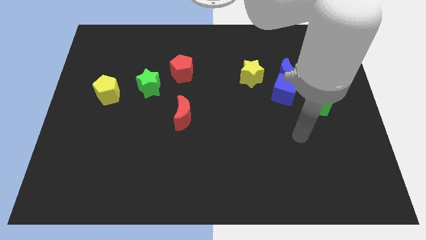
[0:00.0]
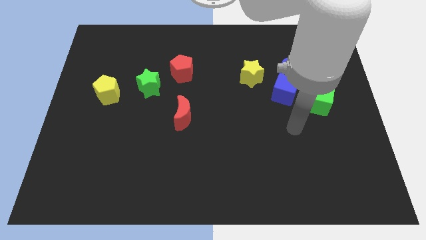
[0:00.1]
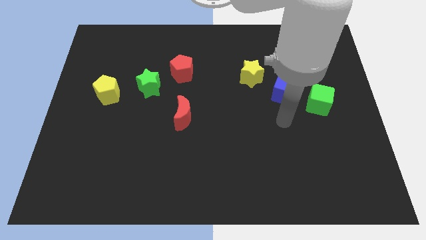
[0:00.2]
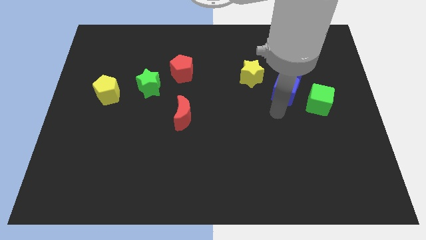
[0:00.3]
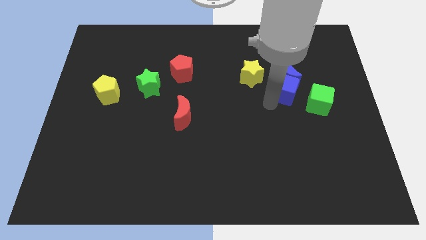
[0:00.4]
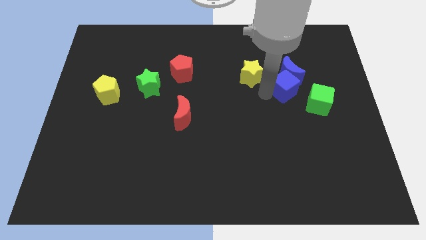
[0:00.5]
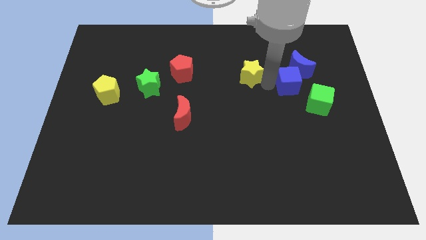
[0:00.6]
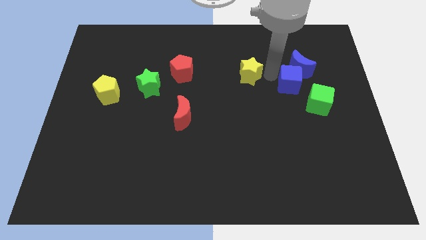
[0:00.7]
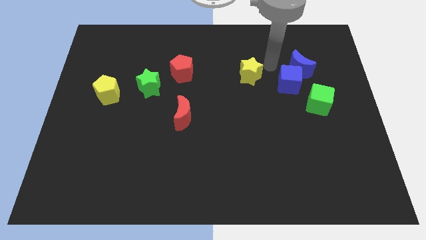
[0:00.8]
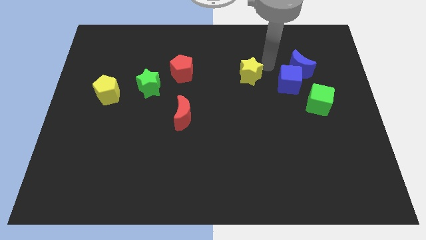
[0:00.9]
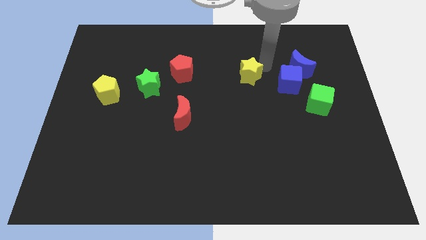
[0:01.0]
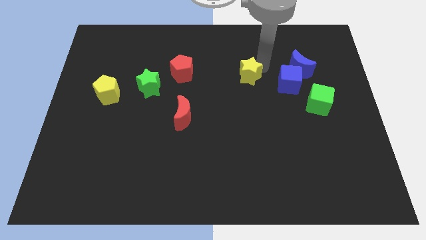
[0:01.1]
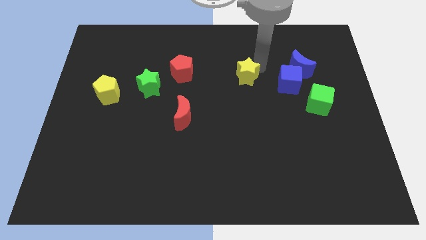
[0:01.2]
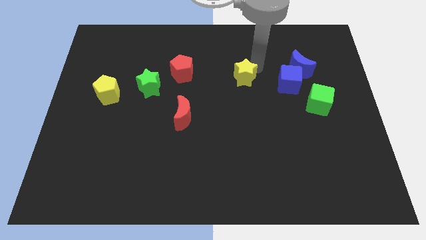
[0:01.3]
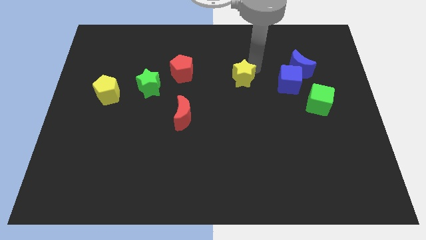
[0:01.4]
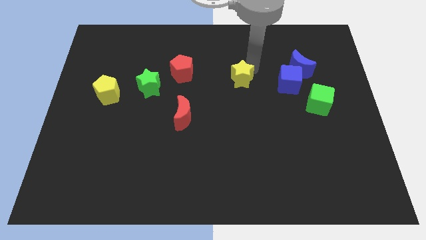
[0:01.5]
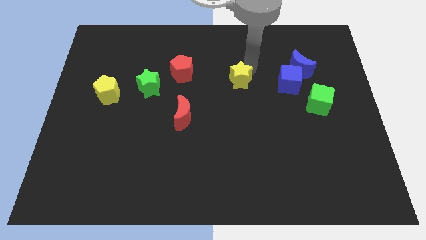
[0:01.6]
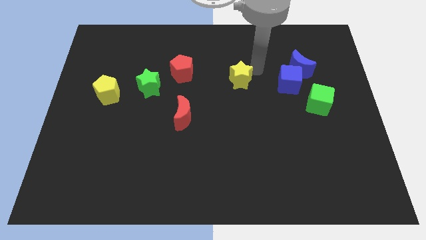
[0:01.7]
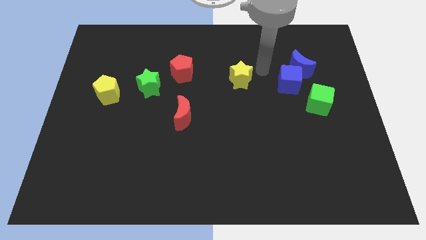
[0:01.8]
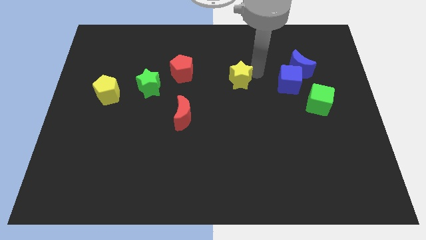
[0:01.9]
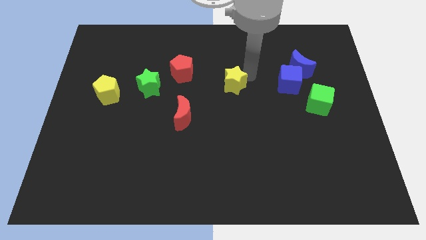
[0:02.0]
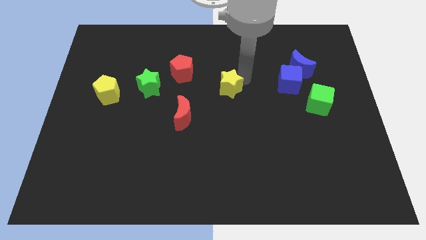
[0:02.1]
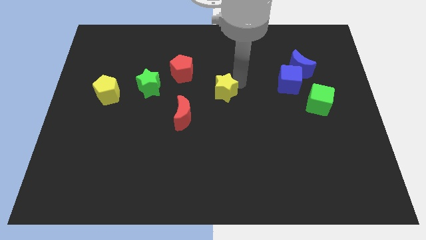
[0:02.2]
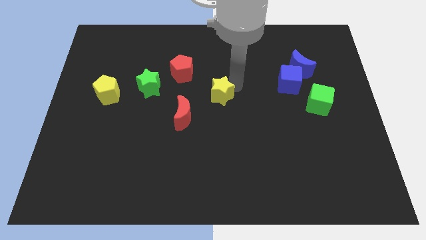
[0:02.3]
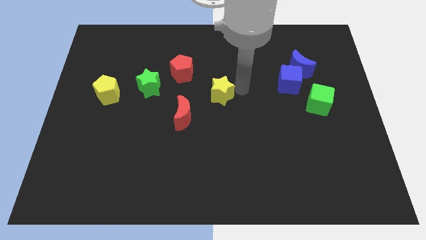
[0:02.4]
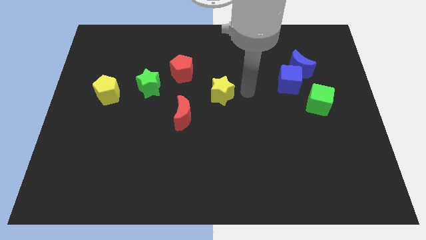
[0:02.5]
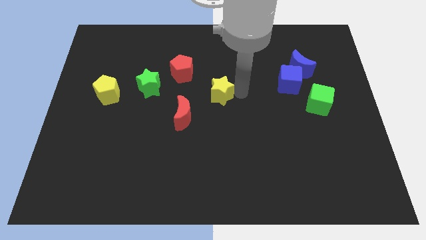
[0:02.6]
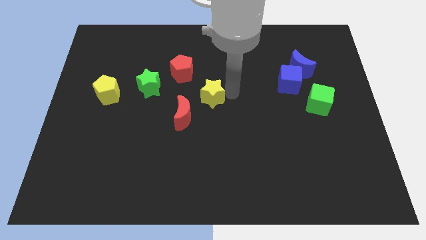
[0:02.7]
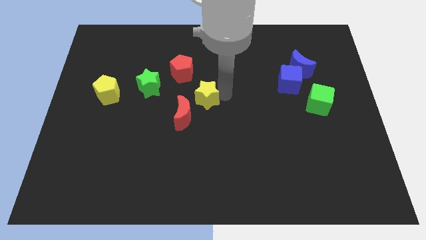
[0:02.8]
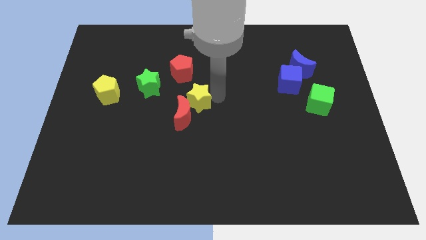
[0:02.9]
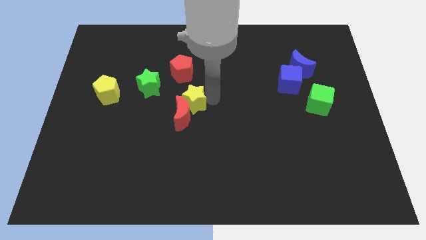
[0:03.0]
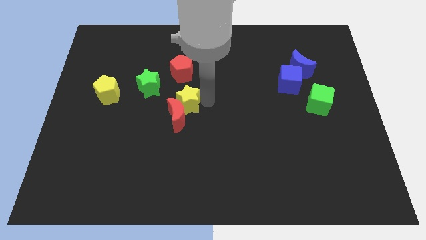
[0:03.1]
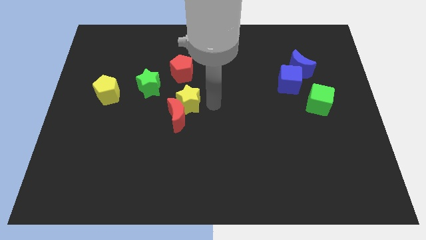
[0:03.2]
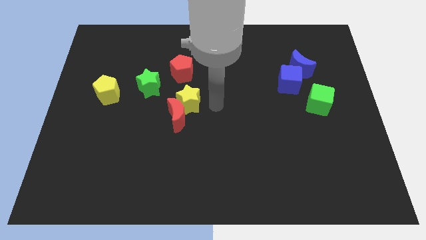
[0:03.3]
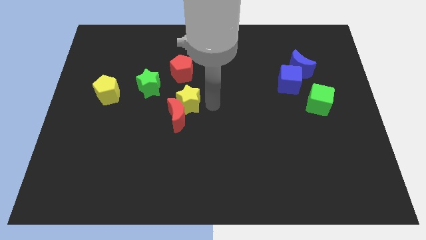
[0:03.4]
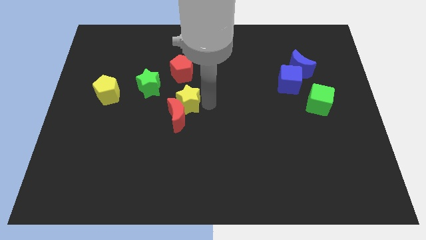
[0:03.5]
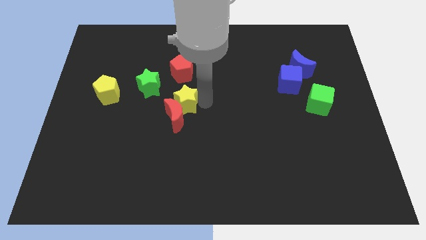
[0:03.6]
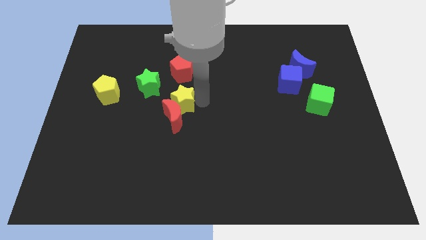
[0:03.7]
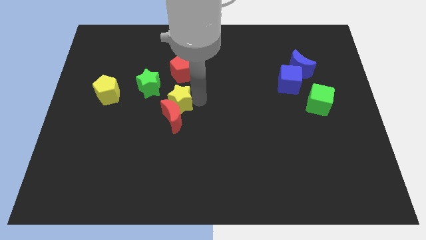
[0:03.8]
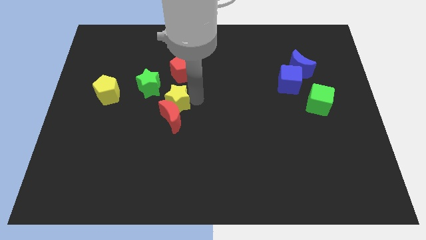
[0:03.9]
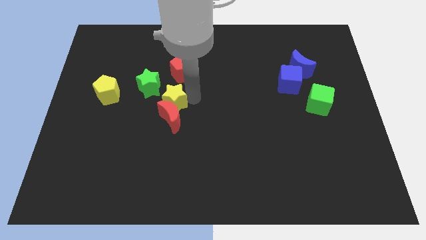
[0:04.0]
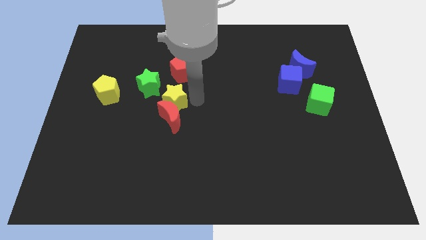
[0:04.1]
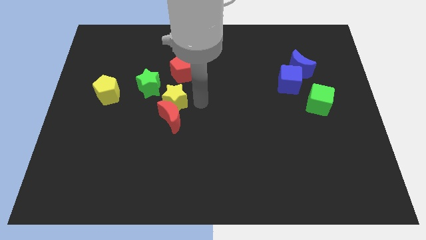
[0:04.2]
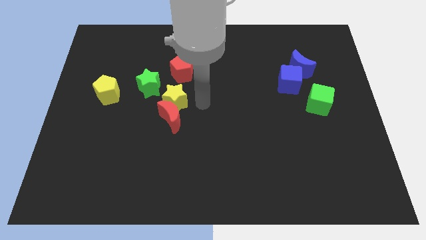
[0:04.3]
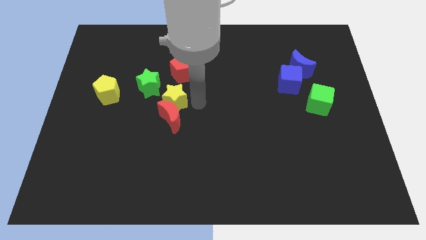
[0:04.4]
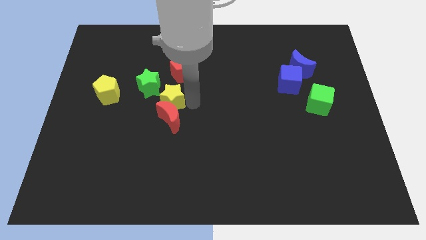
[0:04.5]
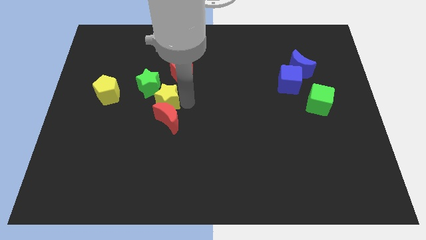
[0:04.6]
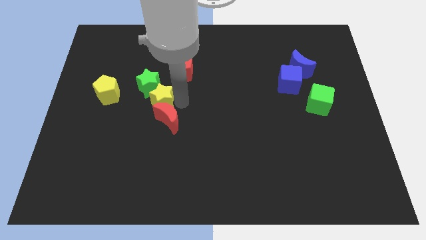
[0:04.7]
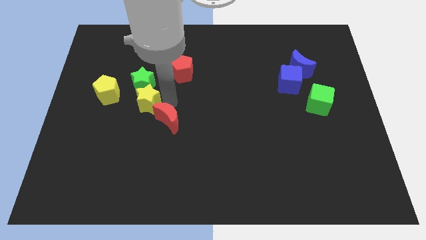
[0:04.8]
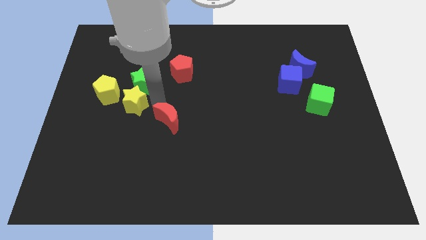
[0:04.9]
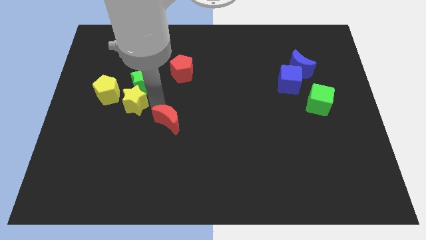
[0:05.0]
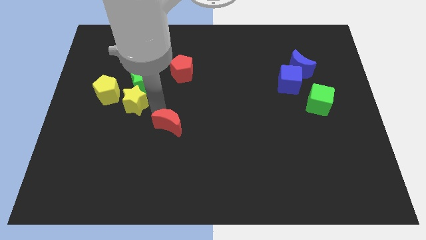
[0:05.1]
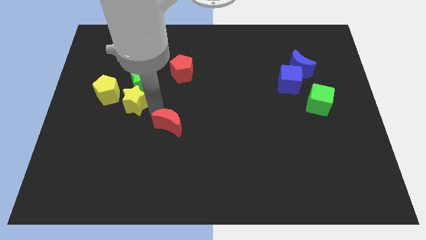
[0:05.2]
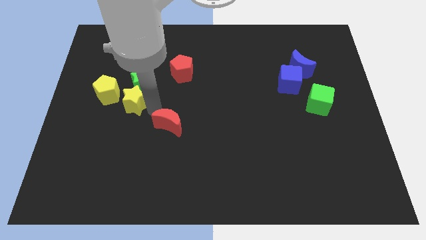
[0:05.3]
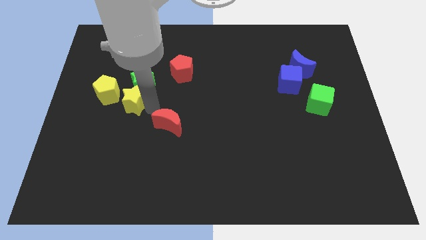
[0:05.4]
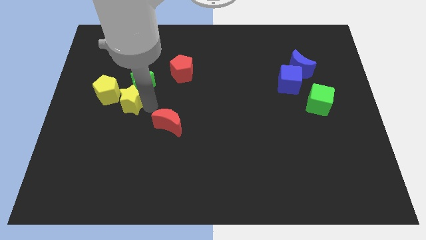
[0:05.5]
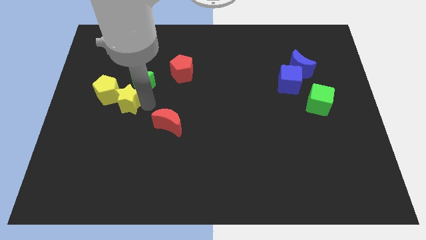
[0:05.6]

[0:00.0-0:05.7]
put the yellow star next to the yellow pentagon

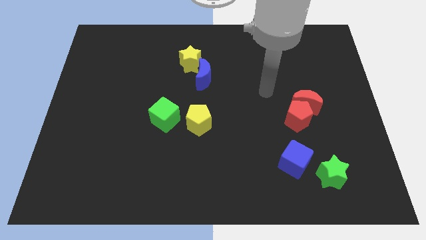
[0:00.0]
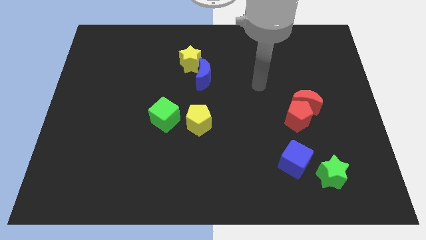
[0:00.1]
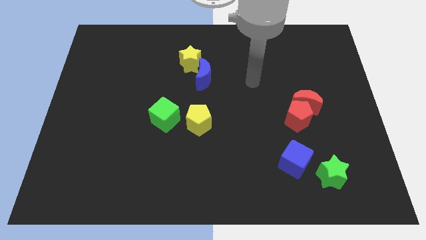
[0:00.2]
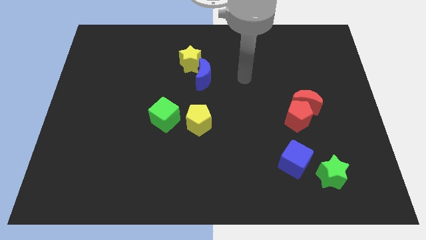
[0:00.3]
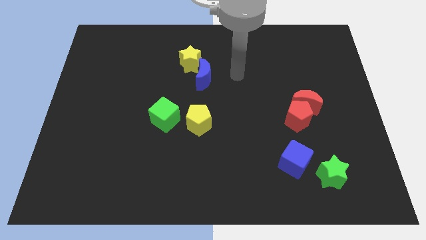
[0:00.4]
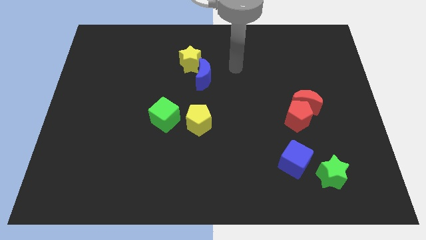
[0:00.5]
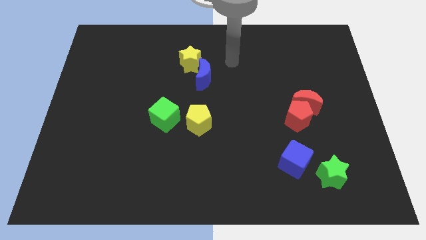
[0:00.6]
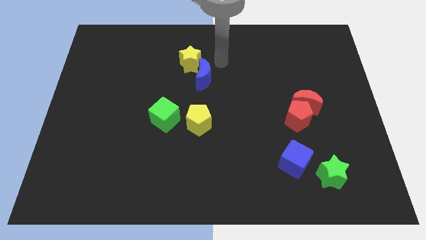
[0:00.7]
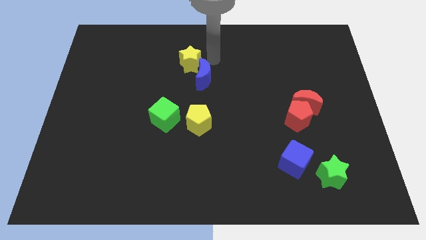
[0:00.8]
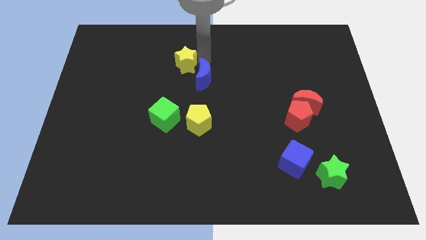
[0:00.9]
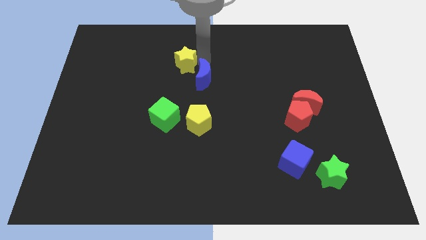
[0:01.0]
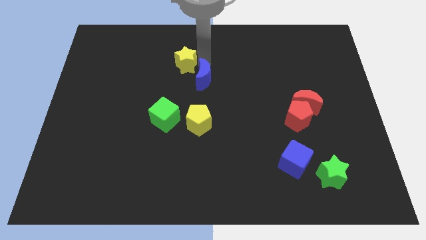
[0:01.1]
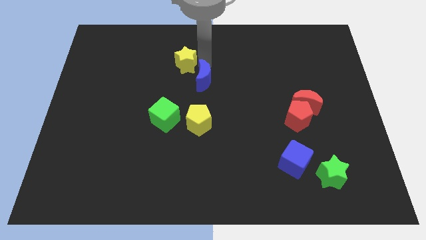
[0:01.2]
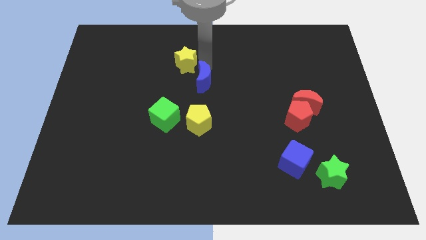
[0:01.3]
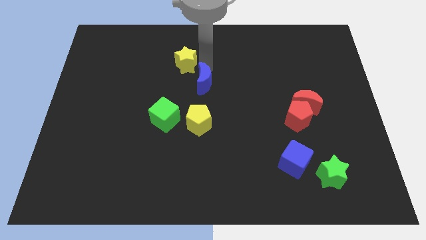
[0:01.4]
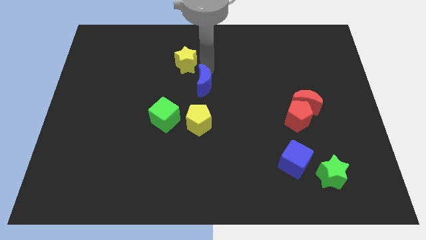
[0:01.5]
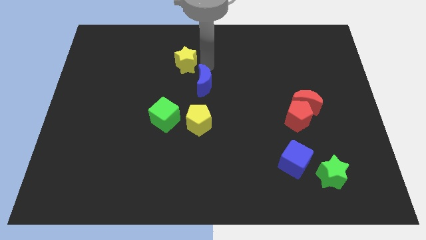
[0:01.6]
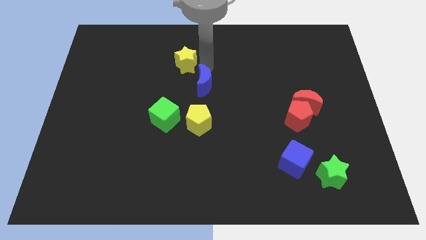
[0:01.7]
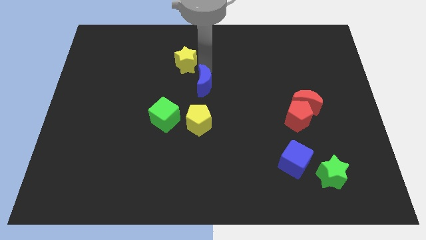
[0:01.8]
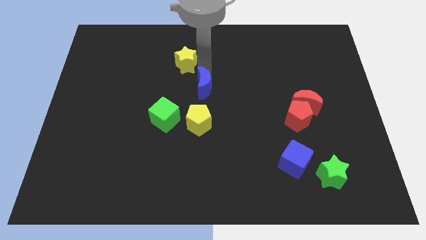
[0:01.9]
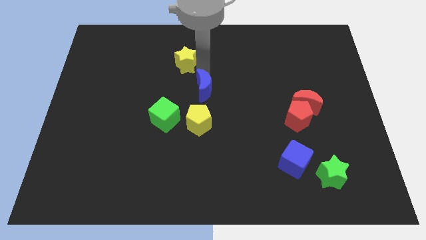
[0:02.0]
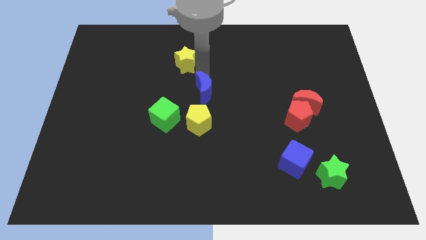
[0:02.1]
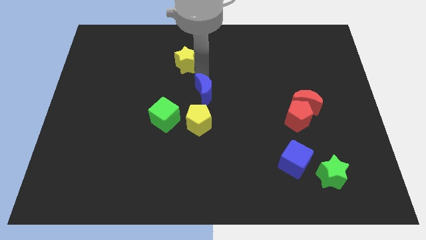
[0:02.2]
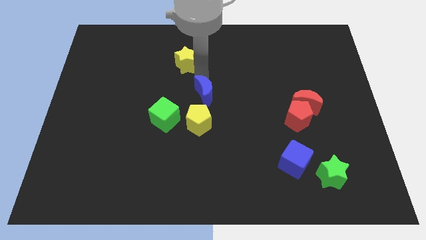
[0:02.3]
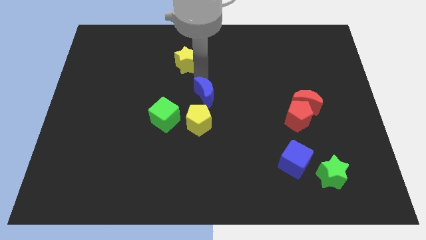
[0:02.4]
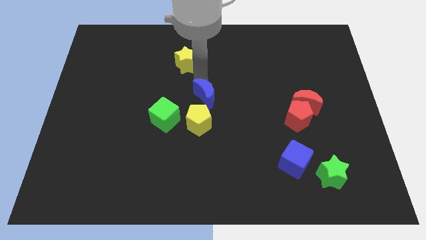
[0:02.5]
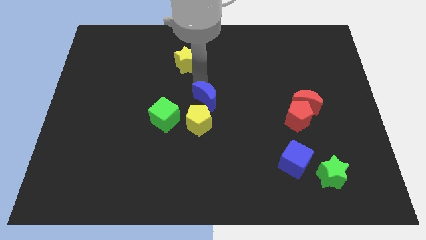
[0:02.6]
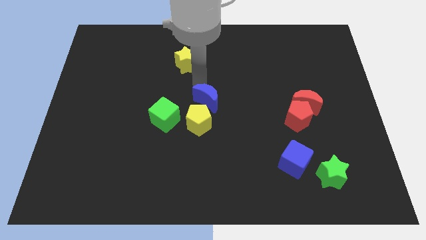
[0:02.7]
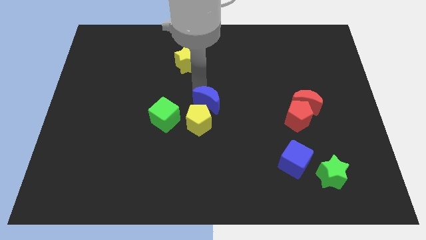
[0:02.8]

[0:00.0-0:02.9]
put the blue moon close to the yellow pentagon
